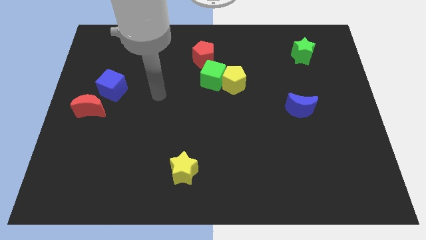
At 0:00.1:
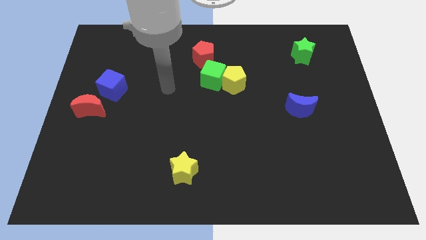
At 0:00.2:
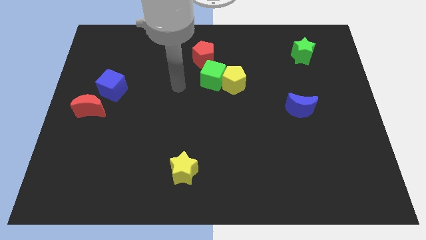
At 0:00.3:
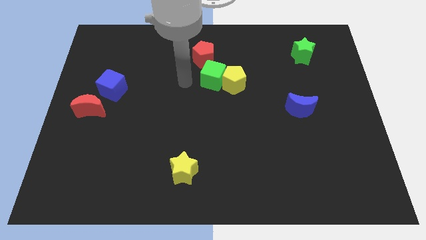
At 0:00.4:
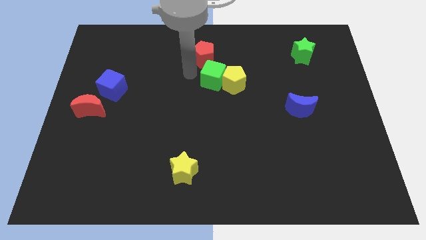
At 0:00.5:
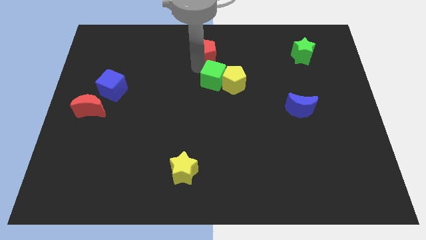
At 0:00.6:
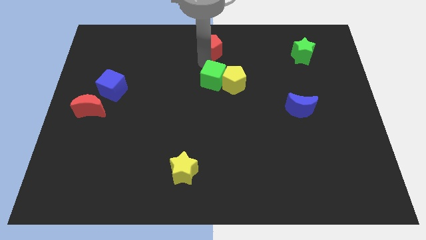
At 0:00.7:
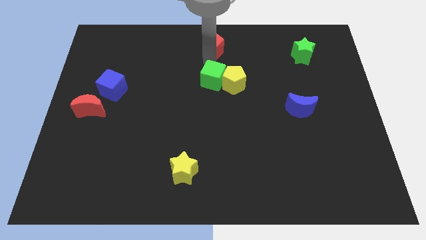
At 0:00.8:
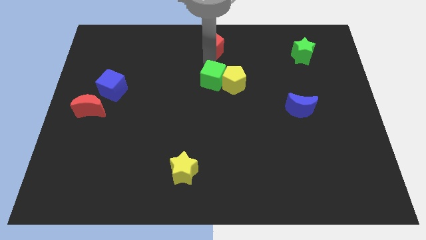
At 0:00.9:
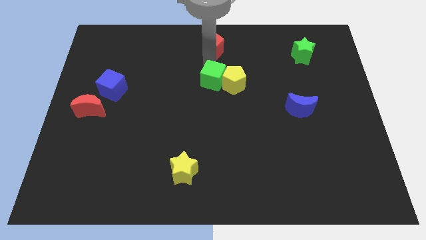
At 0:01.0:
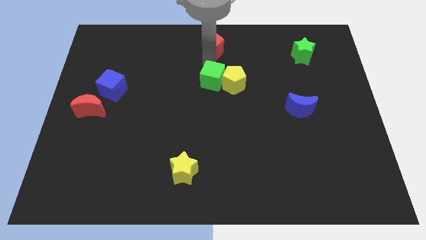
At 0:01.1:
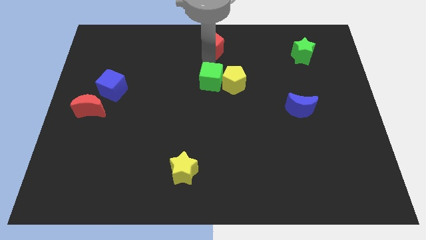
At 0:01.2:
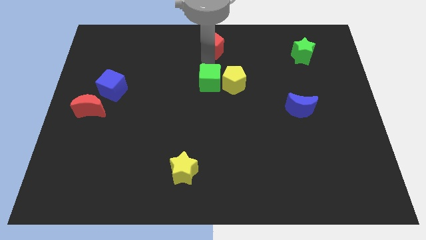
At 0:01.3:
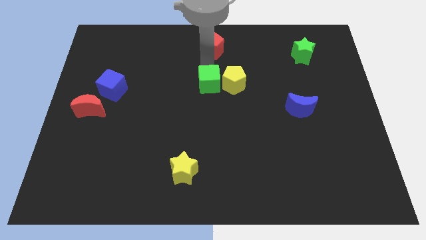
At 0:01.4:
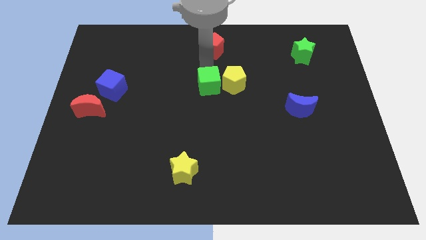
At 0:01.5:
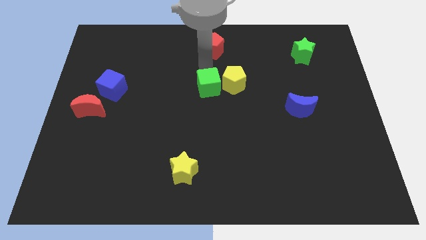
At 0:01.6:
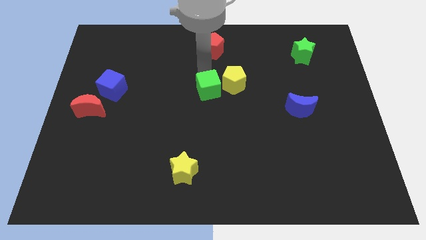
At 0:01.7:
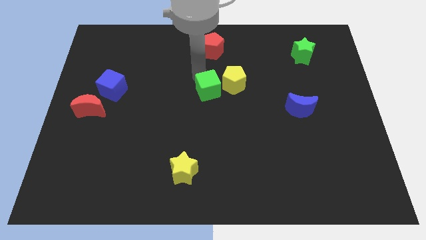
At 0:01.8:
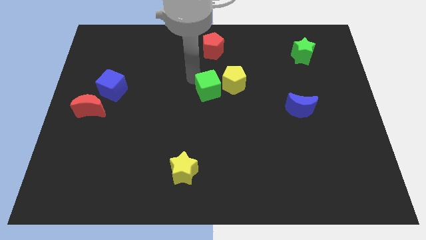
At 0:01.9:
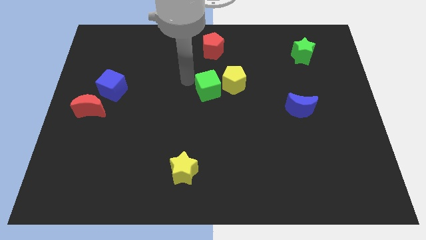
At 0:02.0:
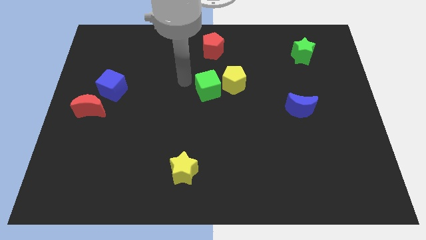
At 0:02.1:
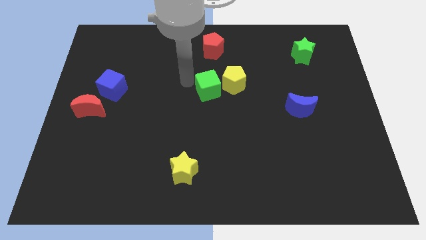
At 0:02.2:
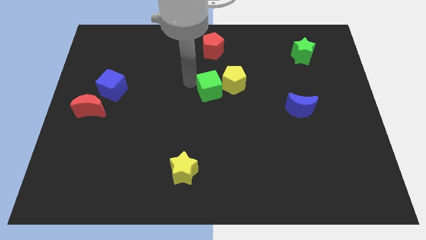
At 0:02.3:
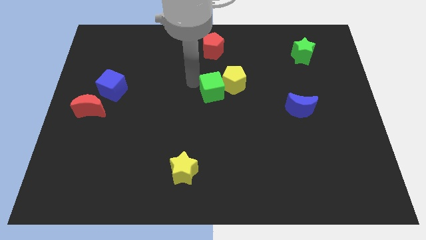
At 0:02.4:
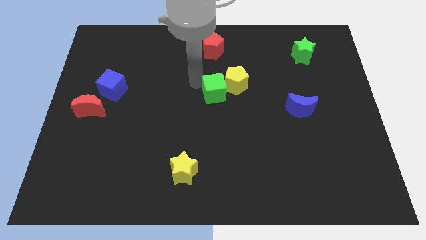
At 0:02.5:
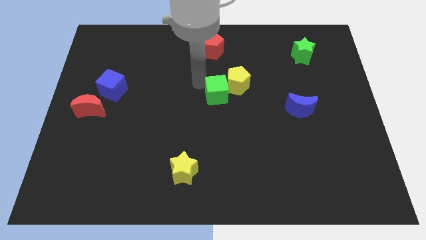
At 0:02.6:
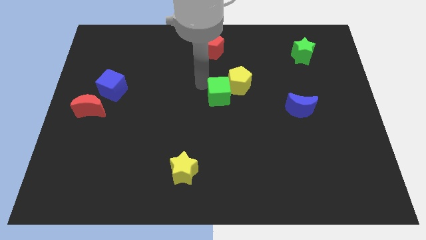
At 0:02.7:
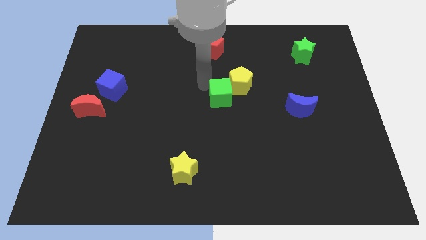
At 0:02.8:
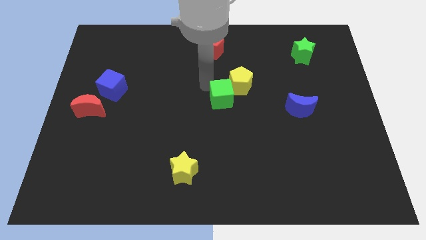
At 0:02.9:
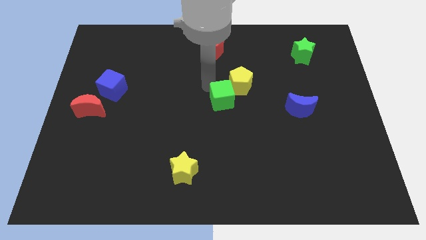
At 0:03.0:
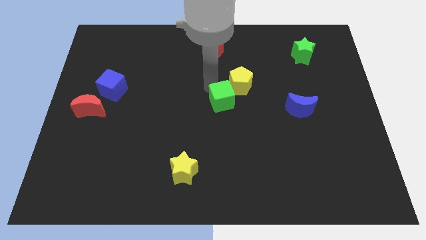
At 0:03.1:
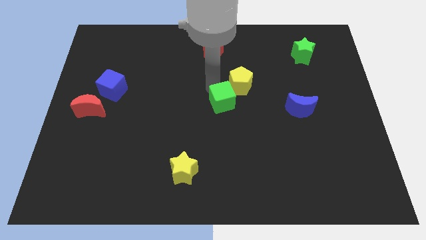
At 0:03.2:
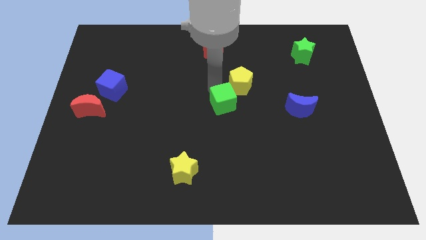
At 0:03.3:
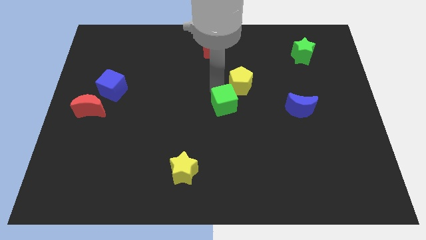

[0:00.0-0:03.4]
slightly move the green cube down and right diagonally

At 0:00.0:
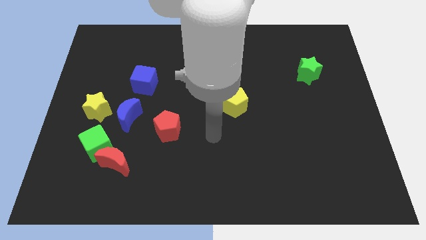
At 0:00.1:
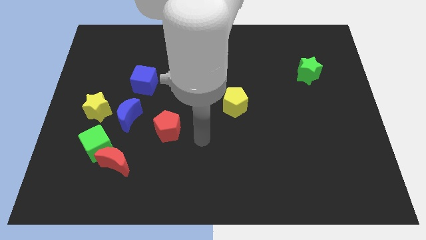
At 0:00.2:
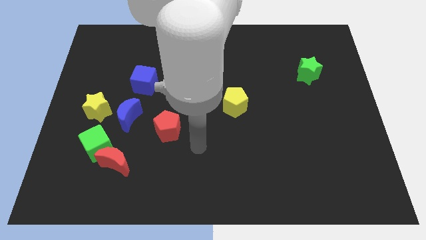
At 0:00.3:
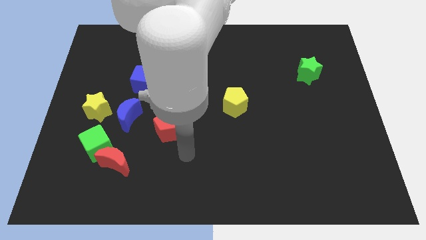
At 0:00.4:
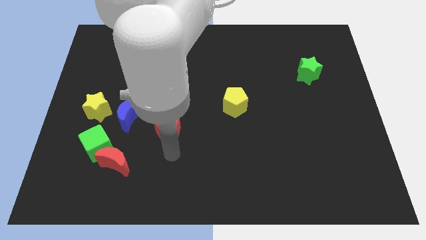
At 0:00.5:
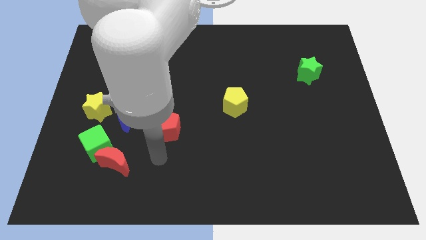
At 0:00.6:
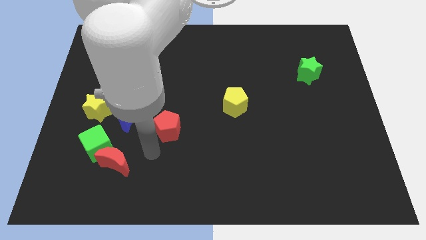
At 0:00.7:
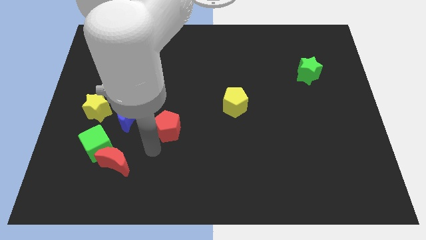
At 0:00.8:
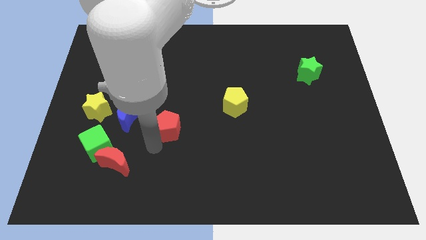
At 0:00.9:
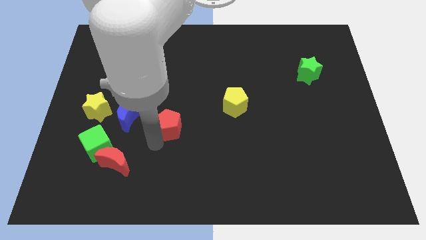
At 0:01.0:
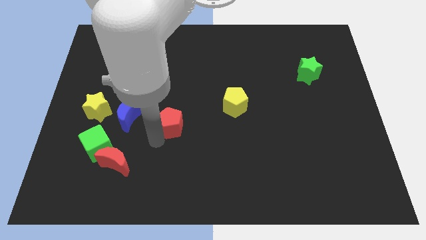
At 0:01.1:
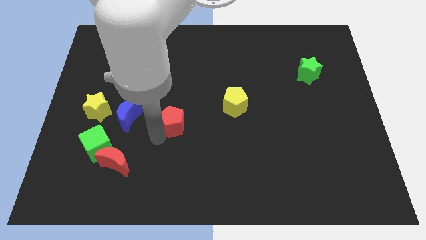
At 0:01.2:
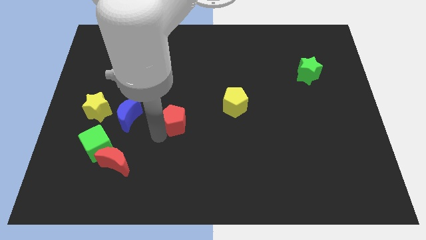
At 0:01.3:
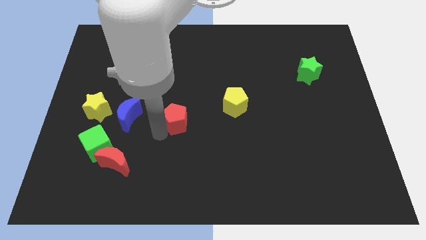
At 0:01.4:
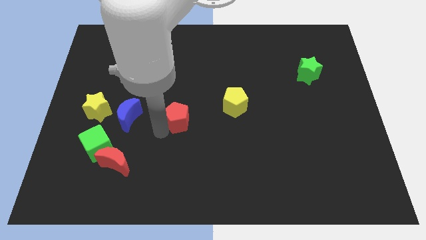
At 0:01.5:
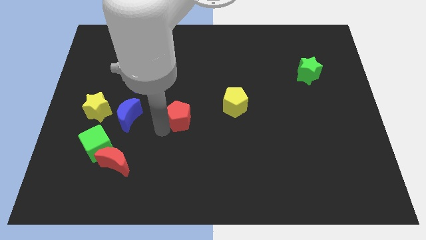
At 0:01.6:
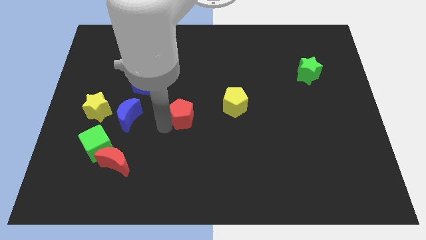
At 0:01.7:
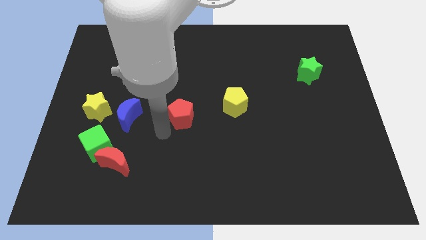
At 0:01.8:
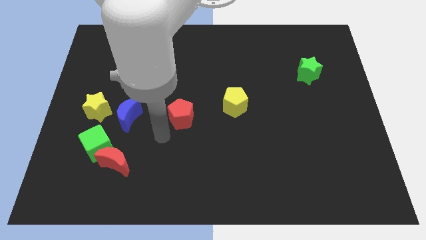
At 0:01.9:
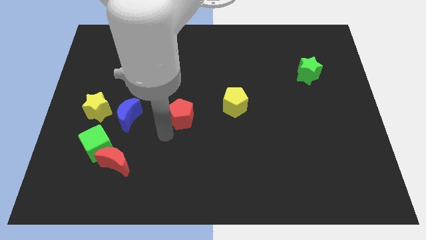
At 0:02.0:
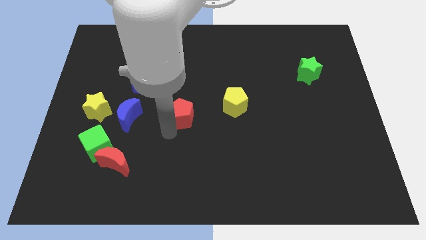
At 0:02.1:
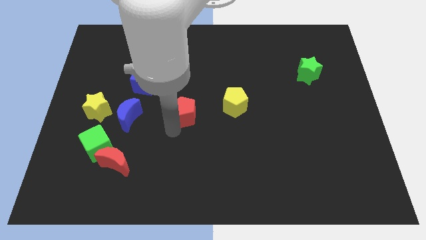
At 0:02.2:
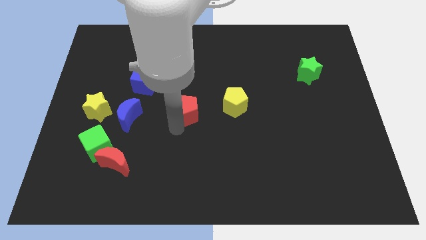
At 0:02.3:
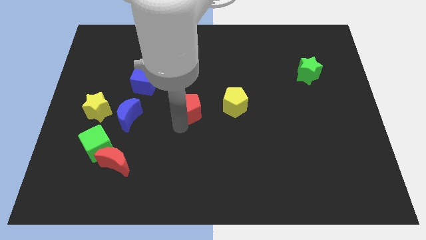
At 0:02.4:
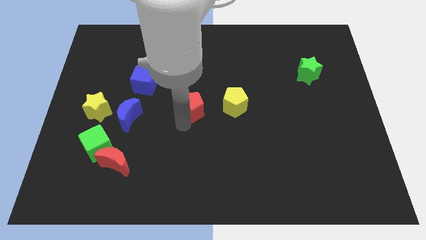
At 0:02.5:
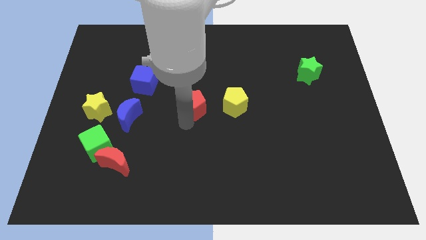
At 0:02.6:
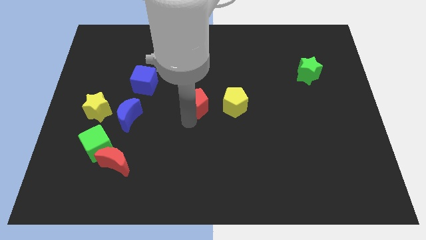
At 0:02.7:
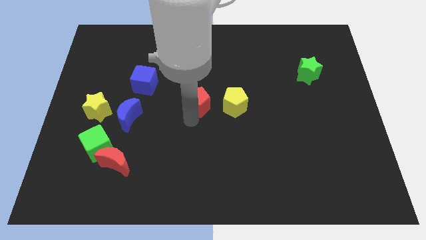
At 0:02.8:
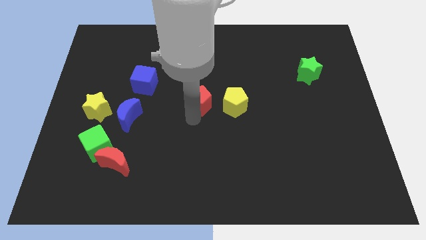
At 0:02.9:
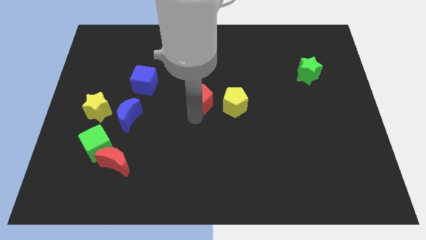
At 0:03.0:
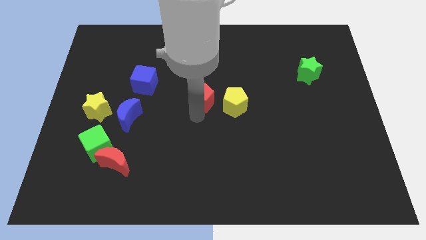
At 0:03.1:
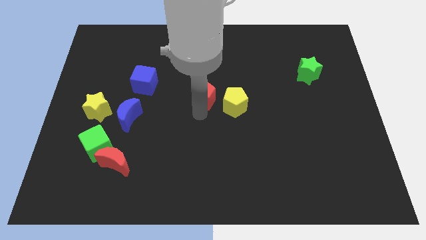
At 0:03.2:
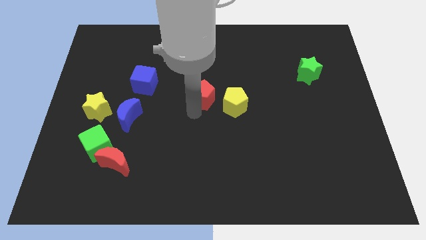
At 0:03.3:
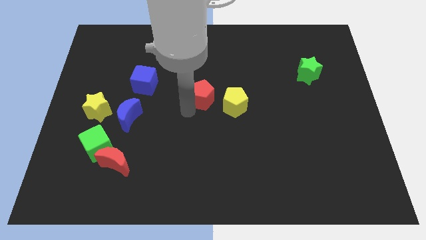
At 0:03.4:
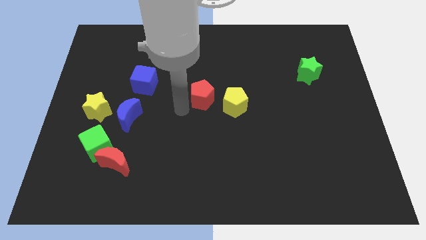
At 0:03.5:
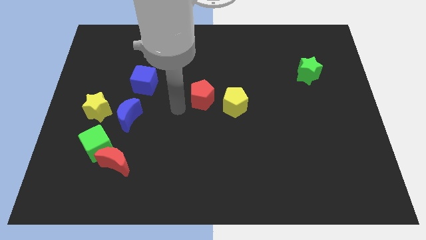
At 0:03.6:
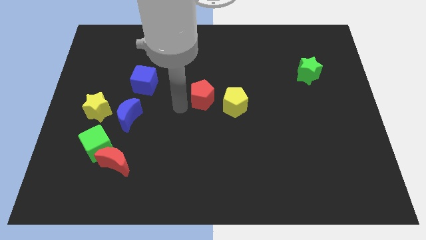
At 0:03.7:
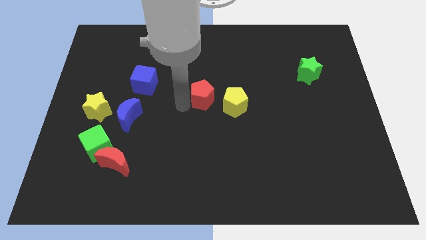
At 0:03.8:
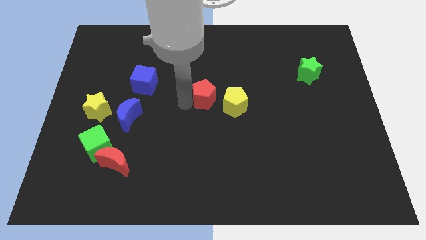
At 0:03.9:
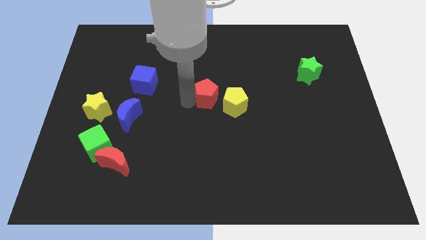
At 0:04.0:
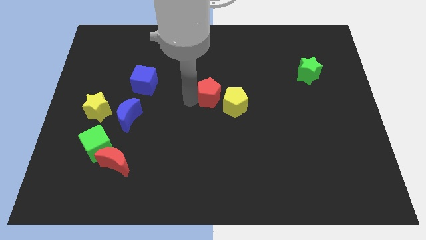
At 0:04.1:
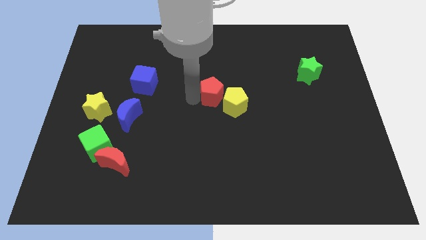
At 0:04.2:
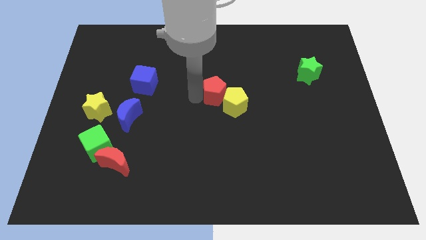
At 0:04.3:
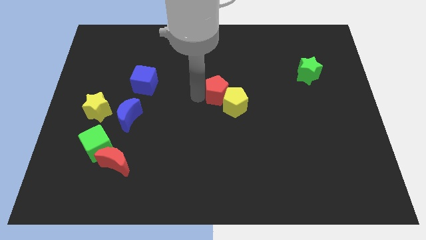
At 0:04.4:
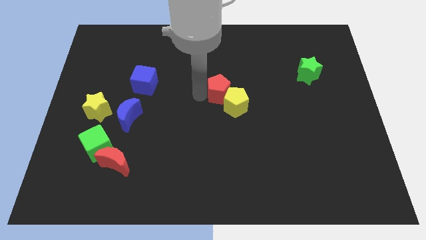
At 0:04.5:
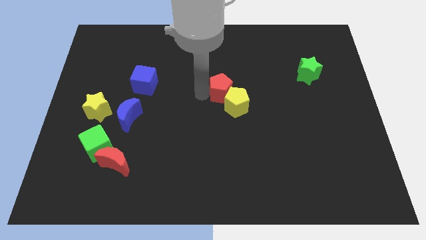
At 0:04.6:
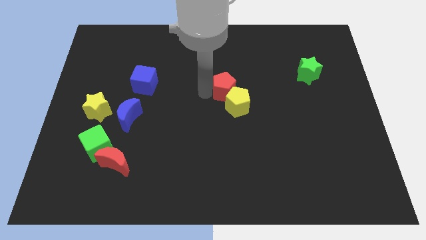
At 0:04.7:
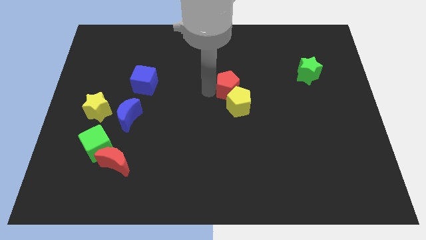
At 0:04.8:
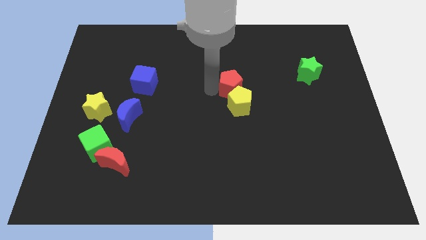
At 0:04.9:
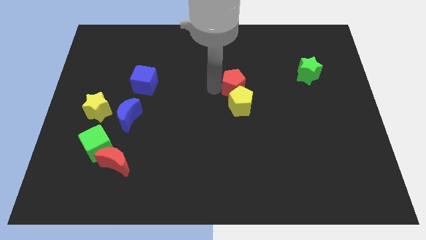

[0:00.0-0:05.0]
push the red pentagon up and to the right
